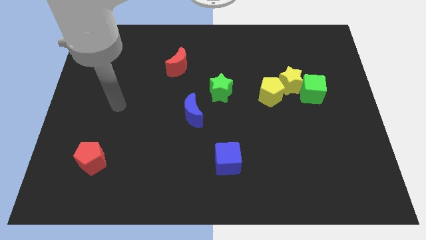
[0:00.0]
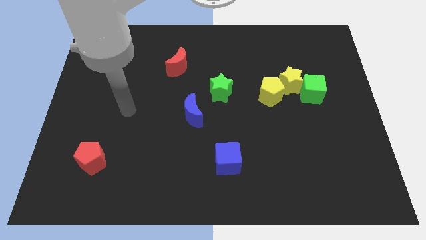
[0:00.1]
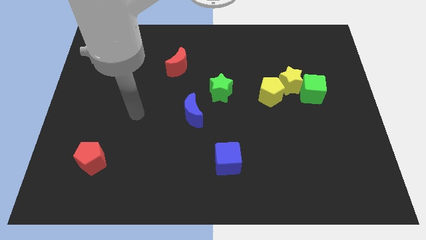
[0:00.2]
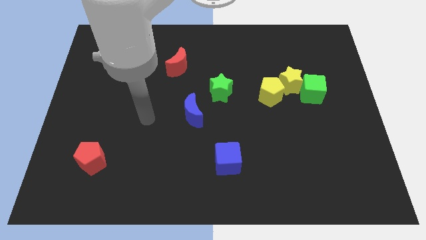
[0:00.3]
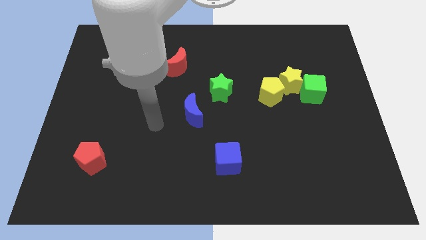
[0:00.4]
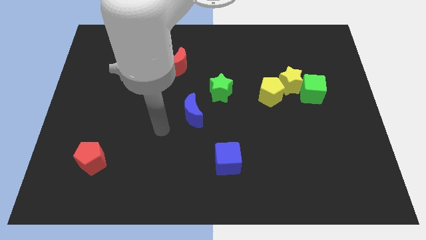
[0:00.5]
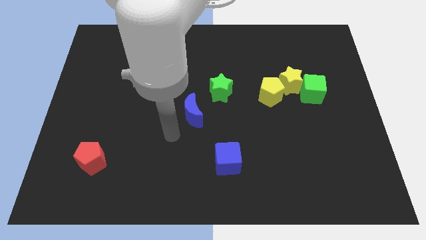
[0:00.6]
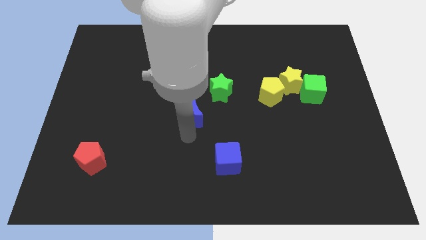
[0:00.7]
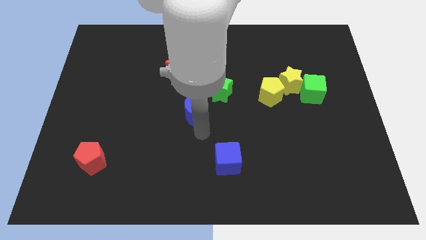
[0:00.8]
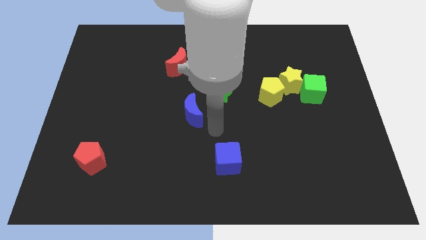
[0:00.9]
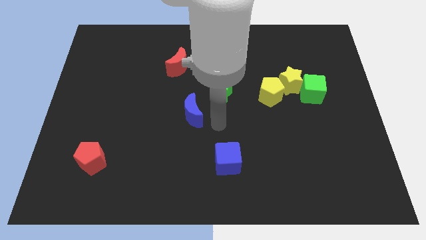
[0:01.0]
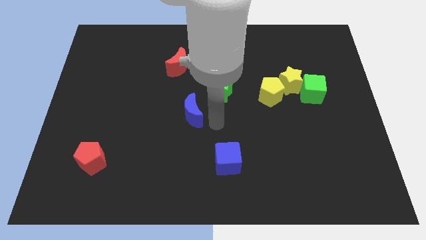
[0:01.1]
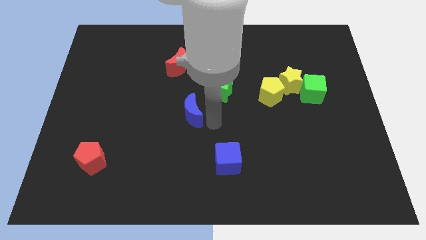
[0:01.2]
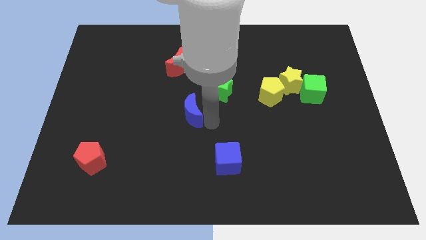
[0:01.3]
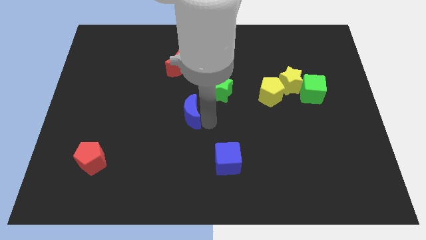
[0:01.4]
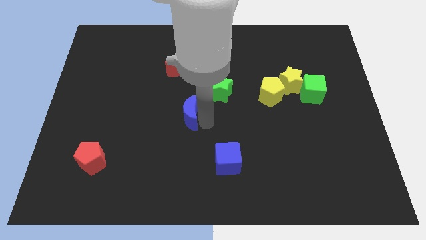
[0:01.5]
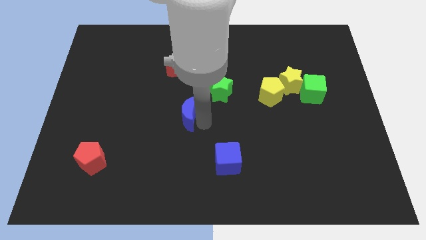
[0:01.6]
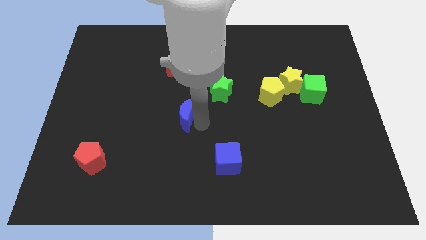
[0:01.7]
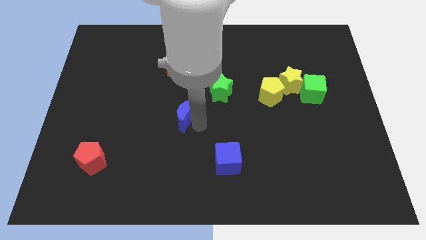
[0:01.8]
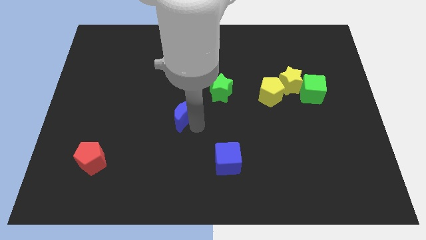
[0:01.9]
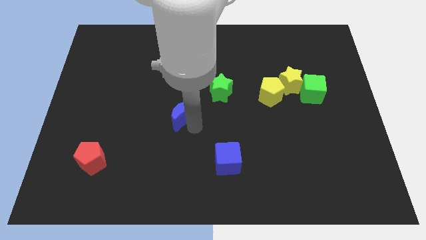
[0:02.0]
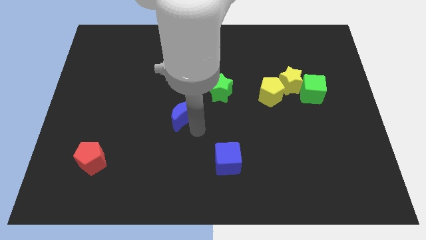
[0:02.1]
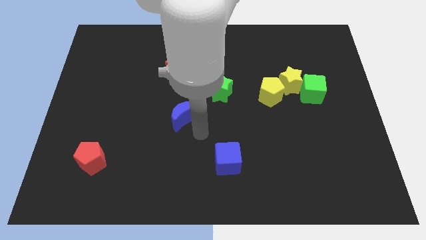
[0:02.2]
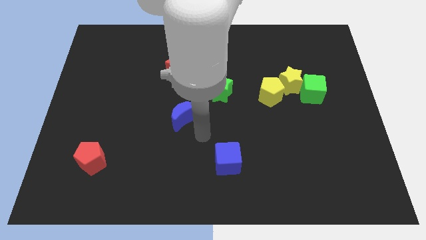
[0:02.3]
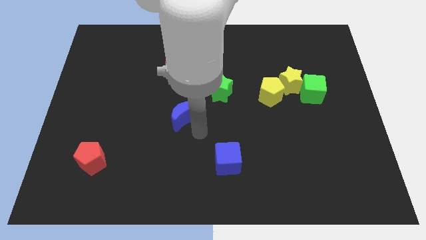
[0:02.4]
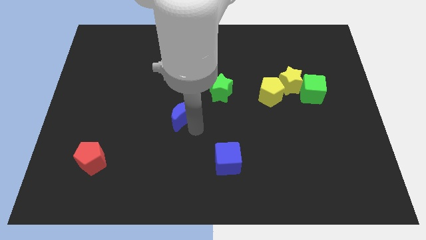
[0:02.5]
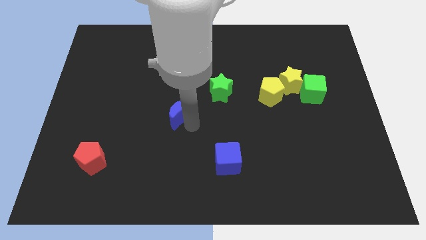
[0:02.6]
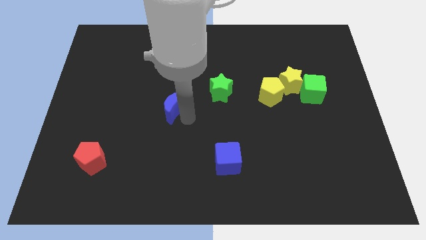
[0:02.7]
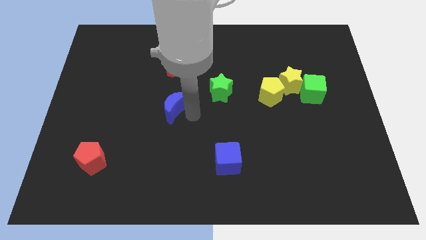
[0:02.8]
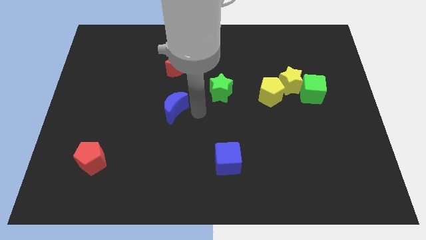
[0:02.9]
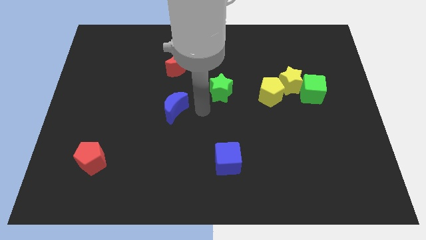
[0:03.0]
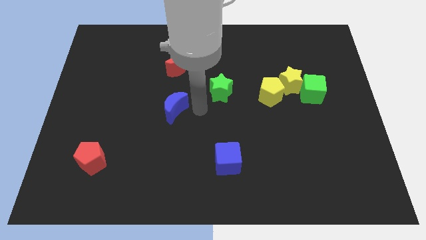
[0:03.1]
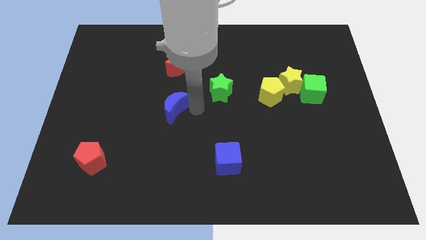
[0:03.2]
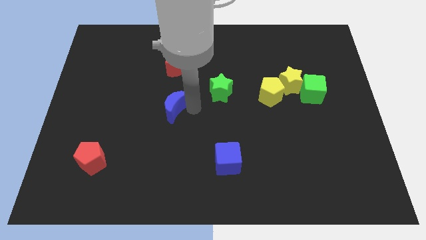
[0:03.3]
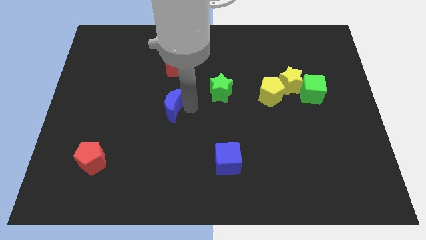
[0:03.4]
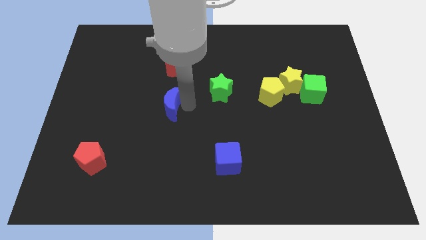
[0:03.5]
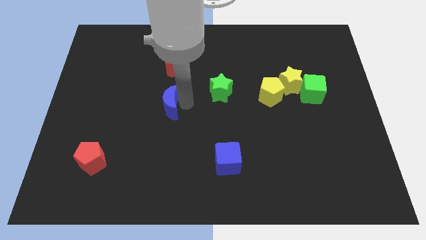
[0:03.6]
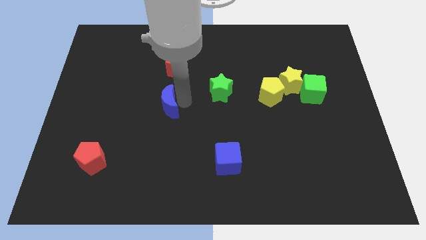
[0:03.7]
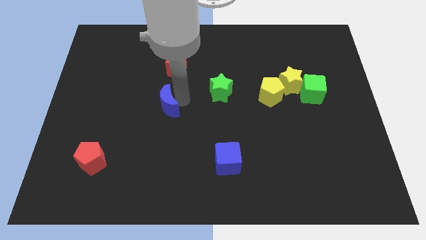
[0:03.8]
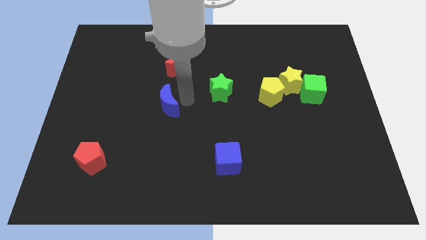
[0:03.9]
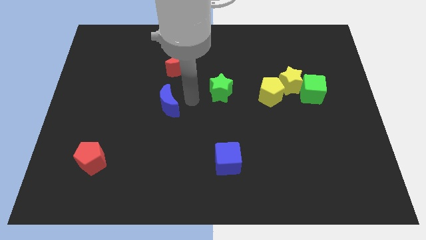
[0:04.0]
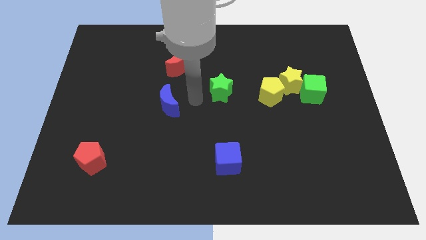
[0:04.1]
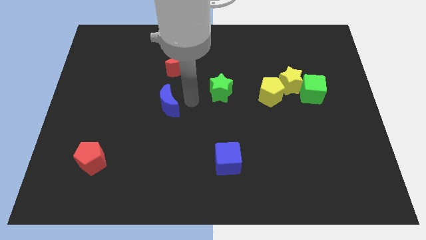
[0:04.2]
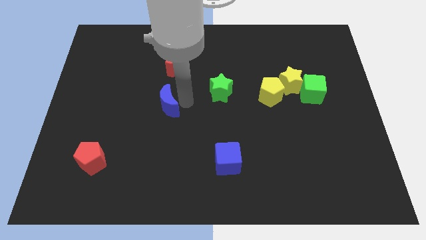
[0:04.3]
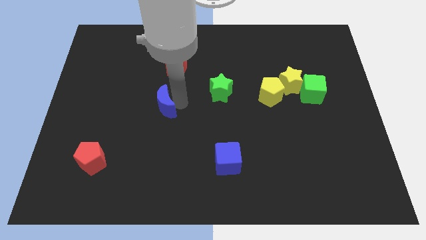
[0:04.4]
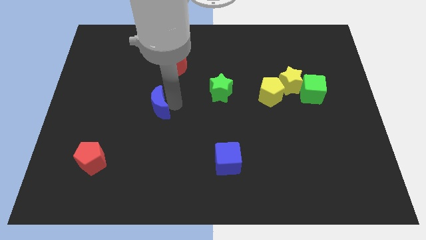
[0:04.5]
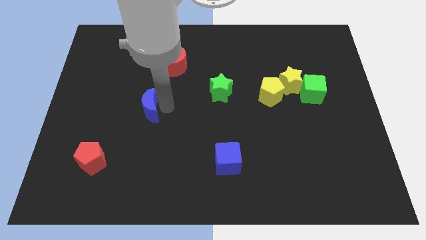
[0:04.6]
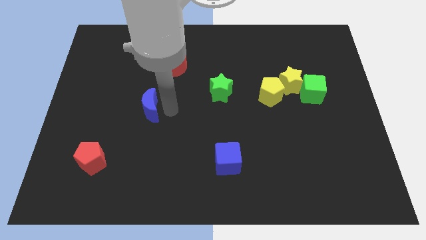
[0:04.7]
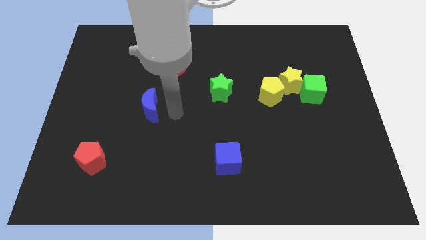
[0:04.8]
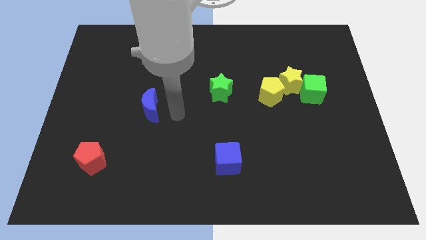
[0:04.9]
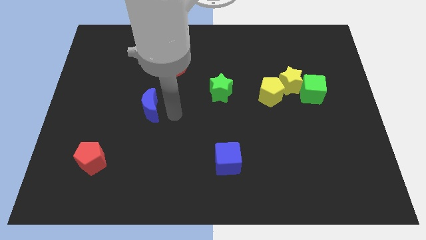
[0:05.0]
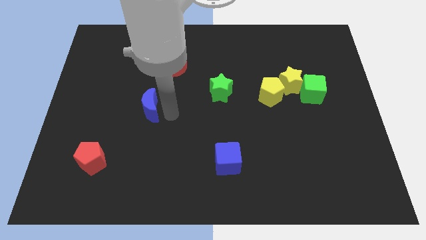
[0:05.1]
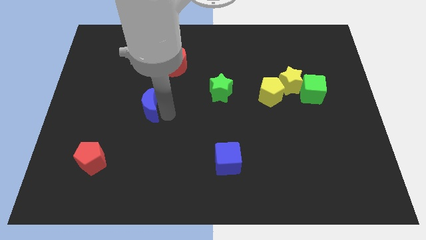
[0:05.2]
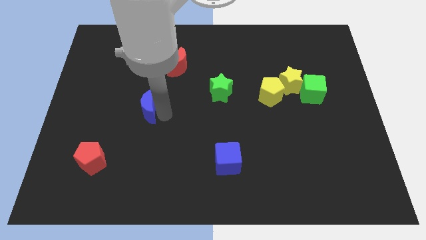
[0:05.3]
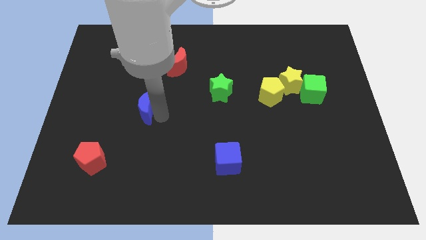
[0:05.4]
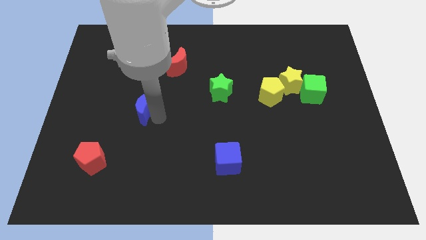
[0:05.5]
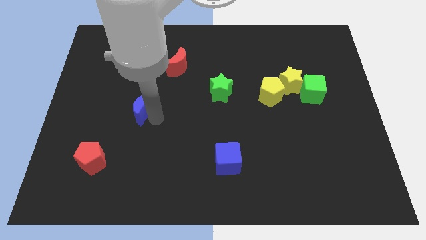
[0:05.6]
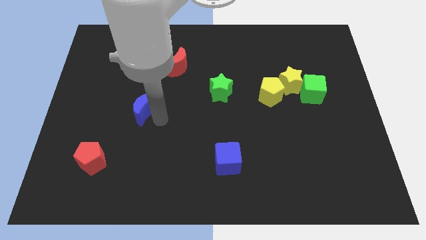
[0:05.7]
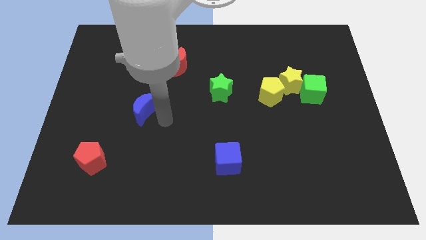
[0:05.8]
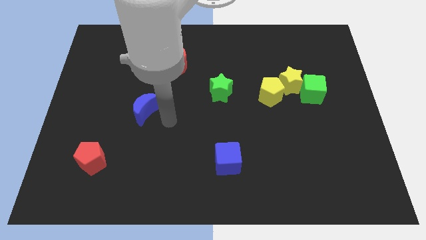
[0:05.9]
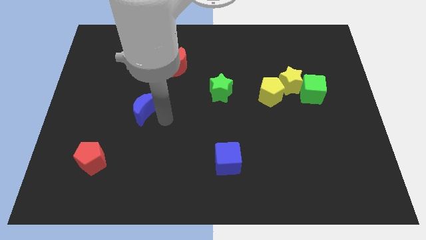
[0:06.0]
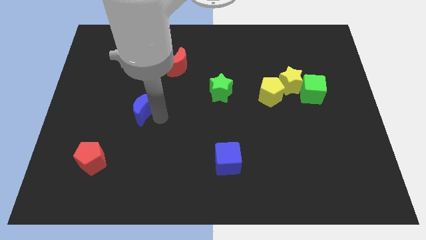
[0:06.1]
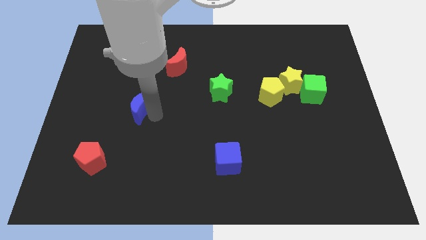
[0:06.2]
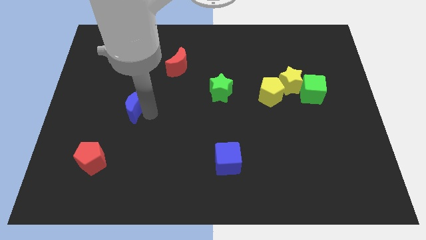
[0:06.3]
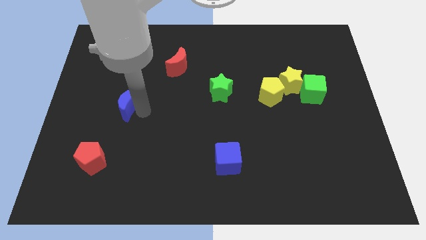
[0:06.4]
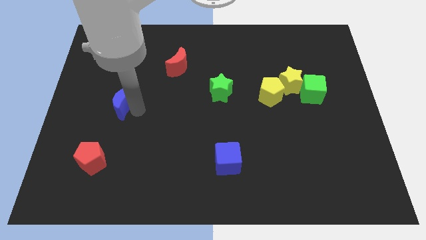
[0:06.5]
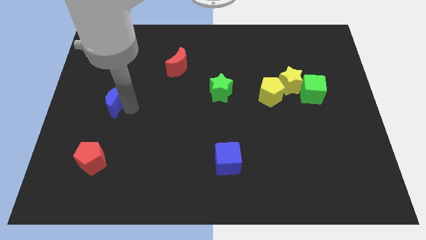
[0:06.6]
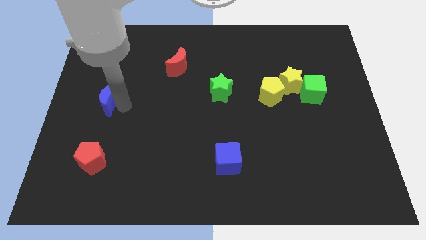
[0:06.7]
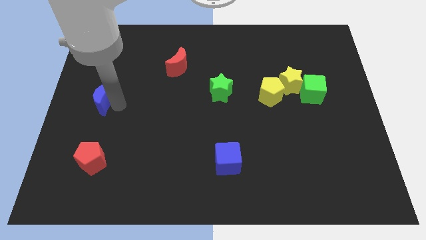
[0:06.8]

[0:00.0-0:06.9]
move the blue moon to the center left
